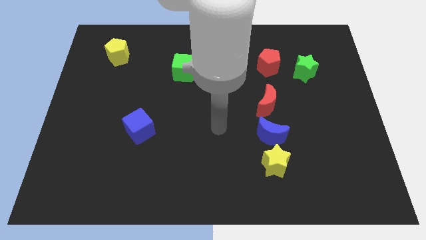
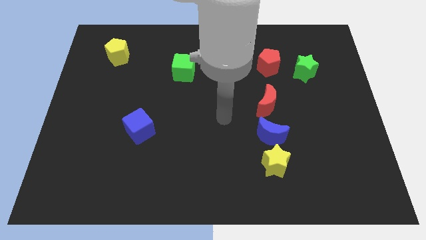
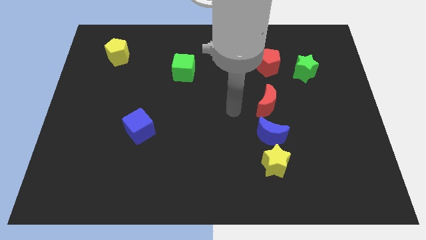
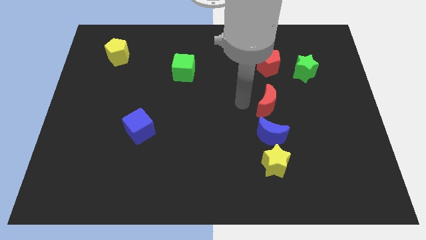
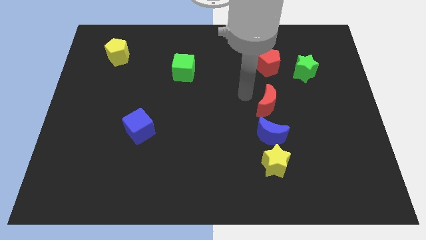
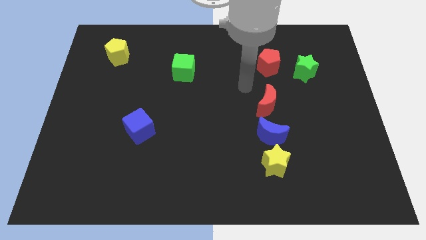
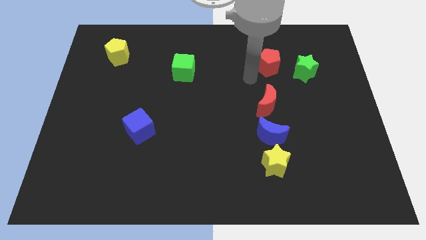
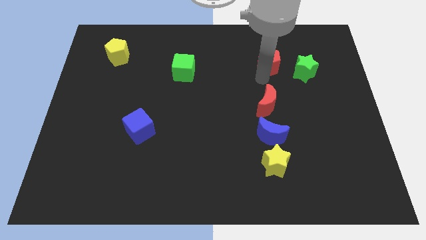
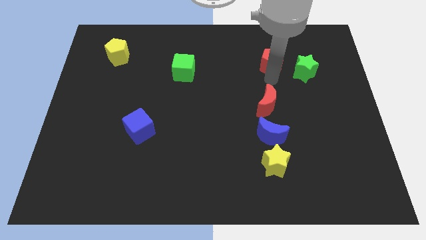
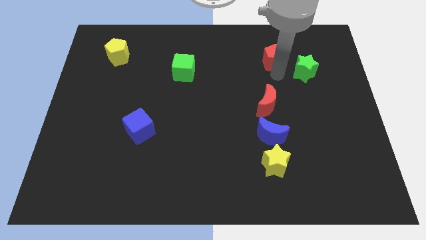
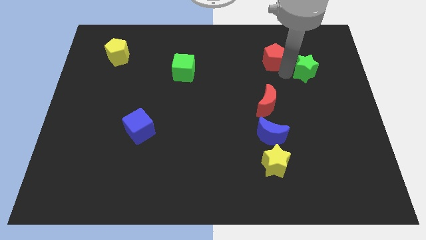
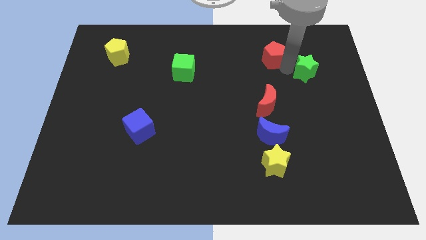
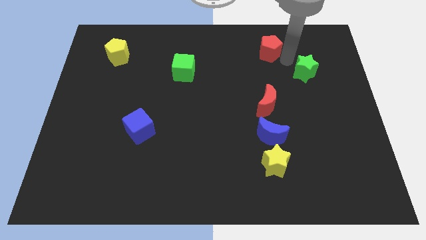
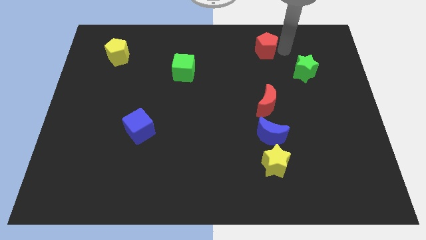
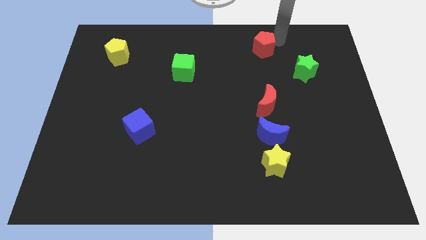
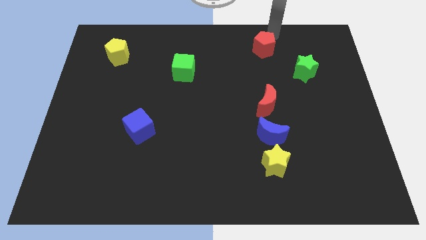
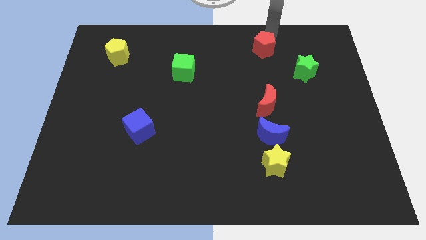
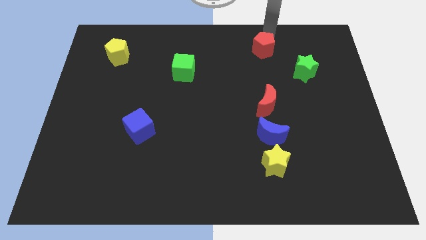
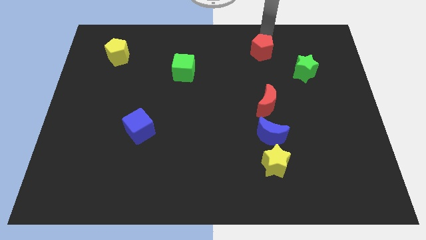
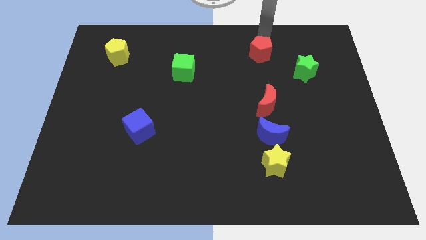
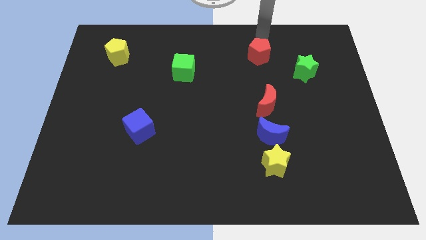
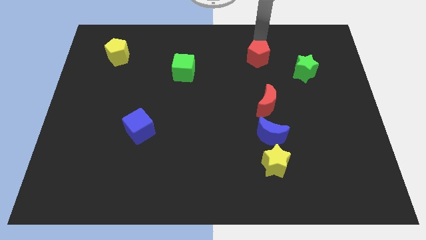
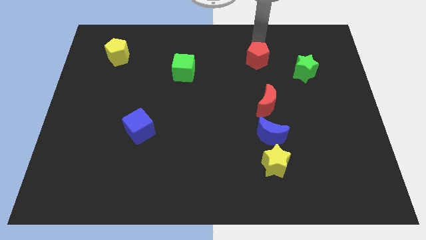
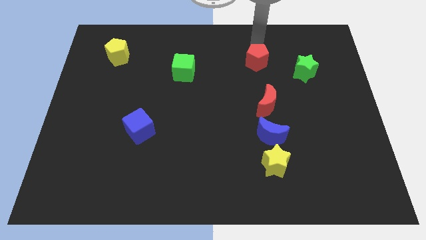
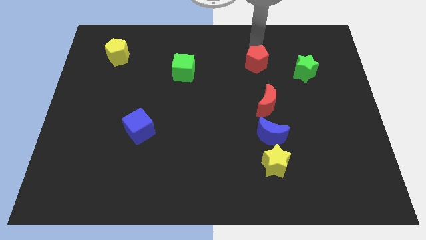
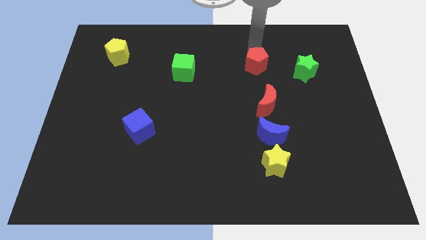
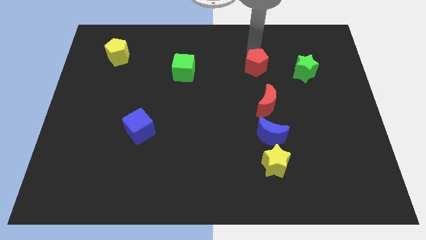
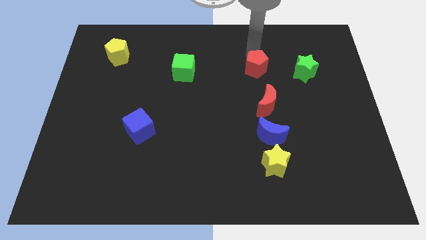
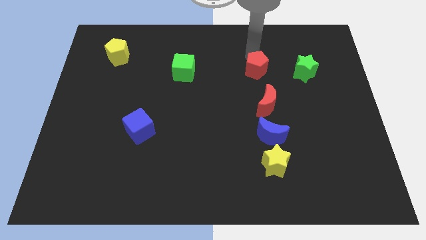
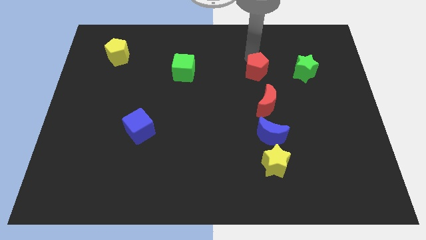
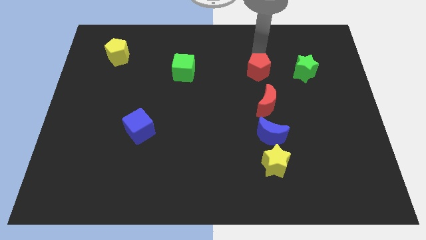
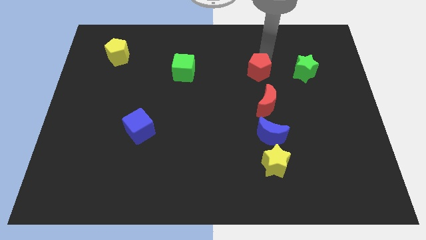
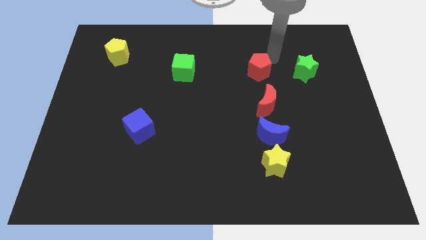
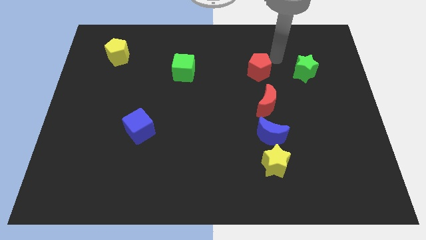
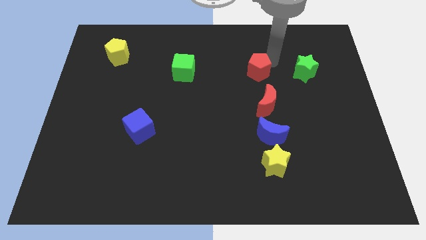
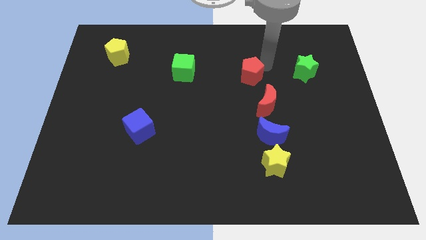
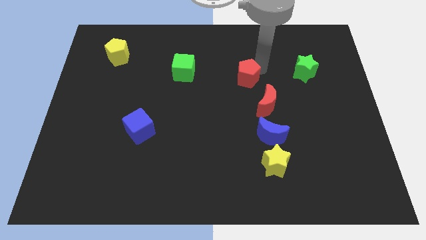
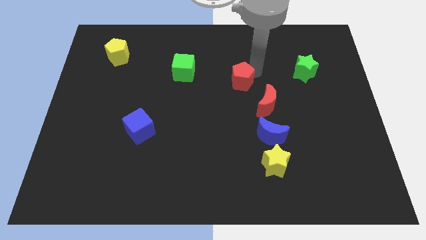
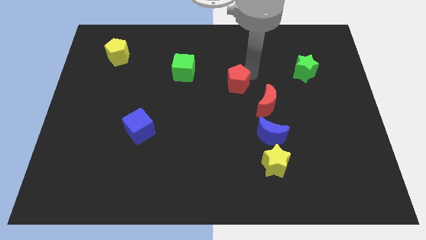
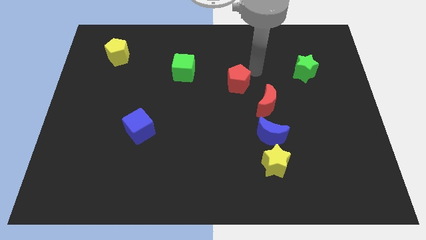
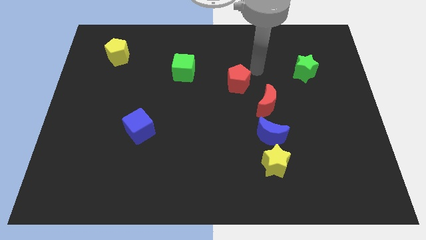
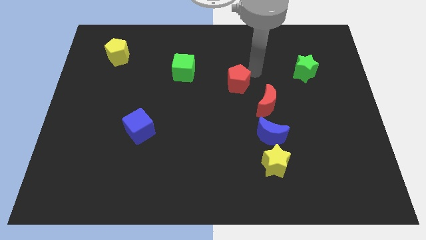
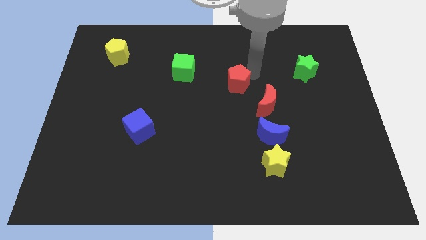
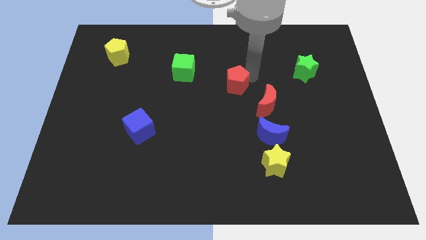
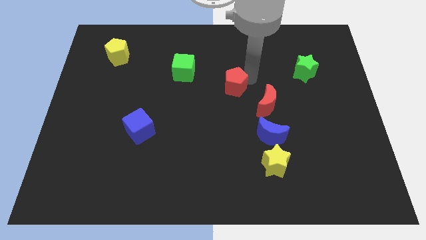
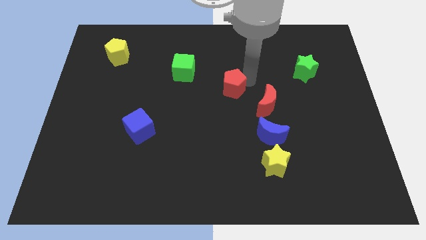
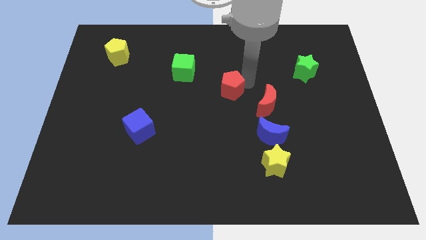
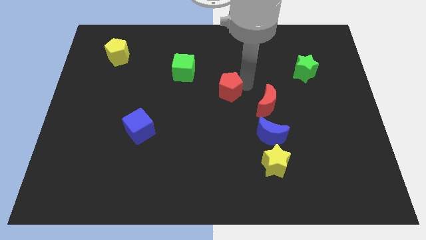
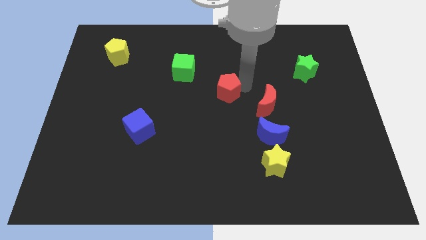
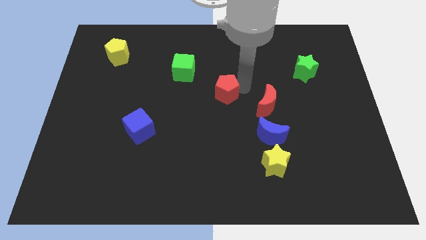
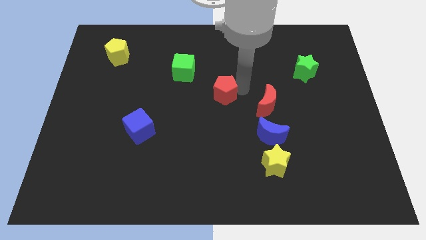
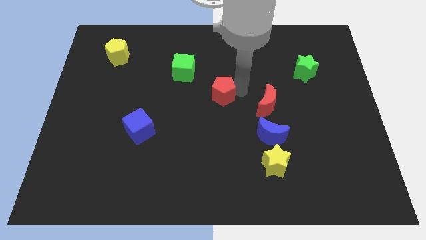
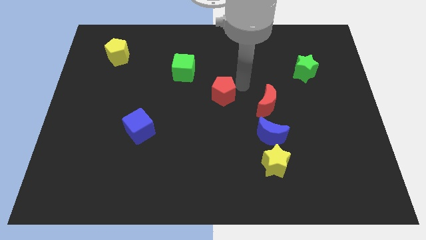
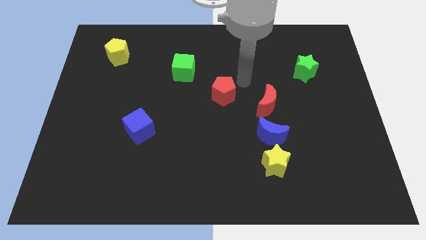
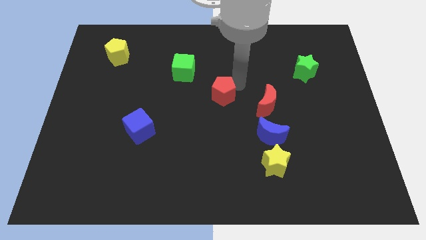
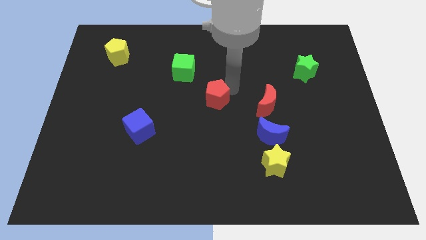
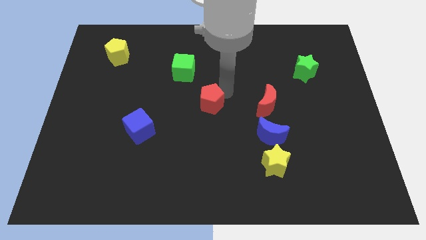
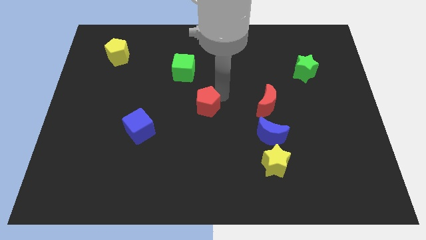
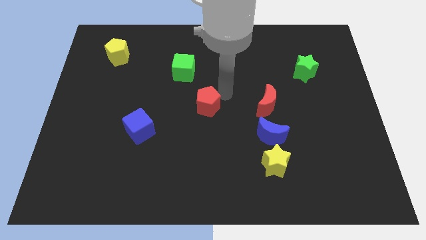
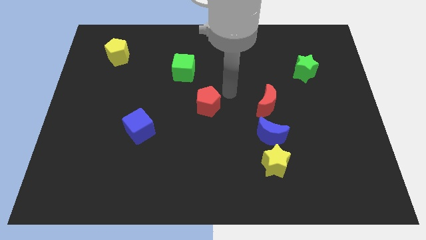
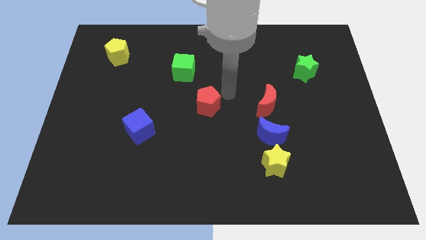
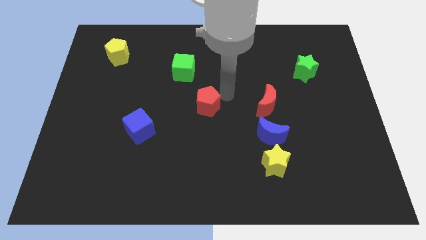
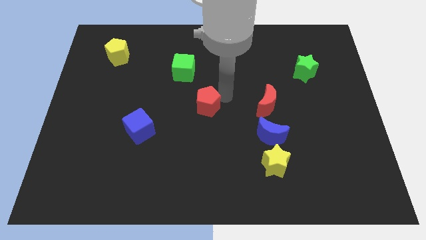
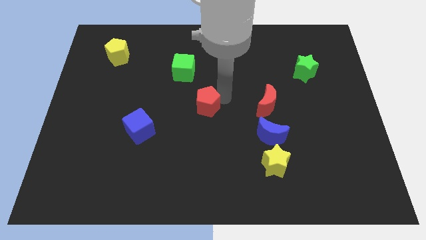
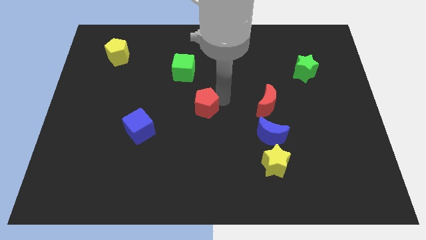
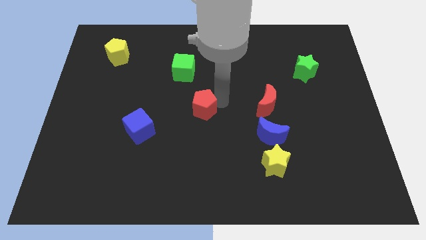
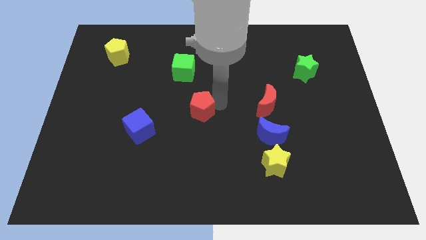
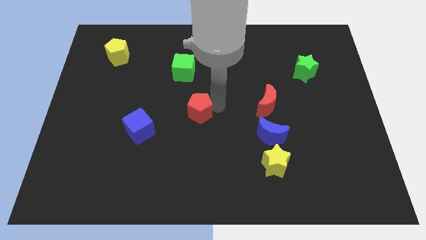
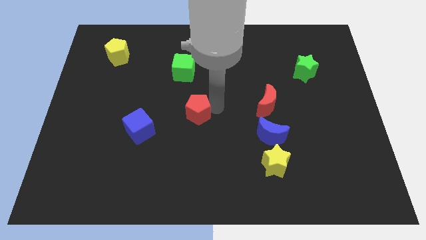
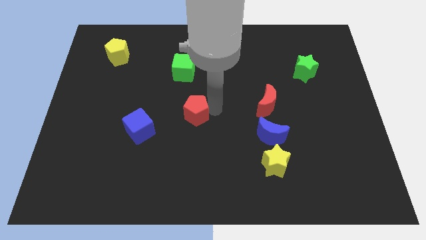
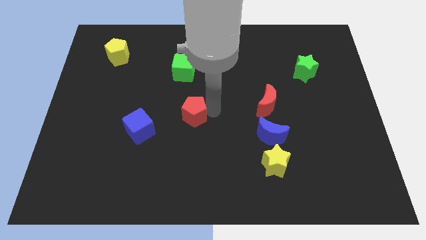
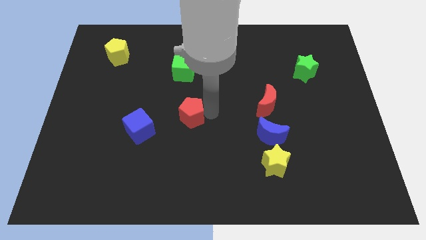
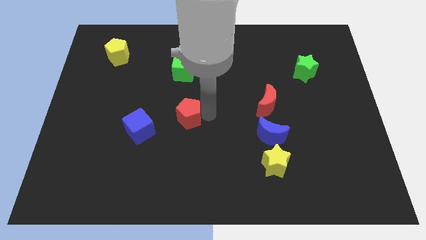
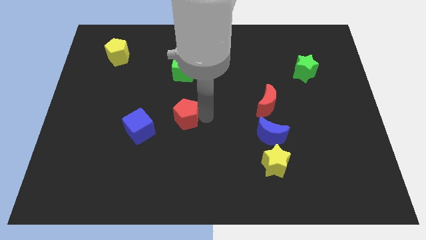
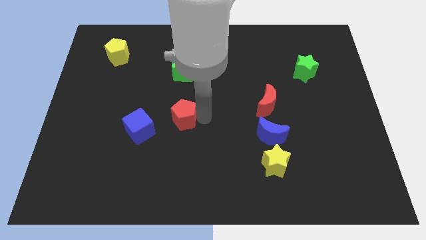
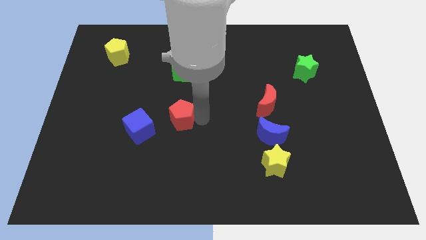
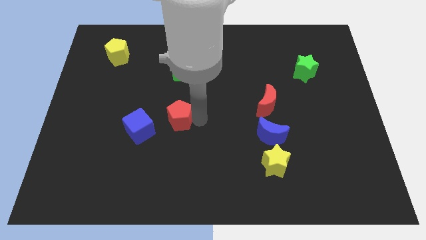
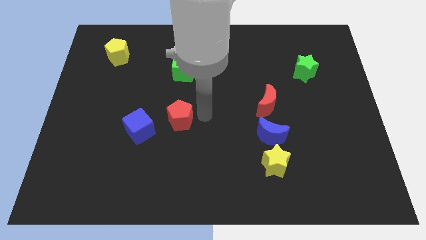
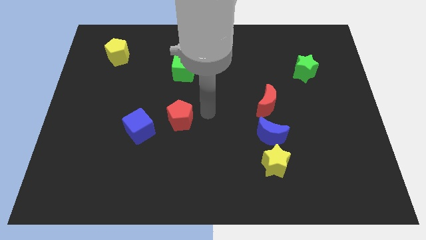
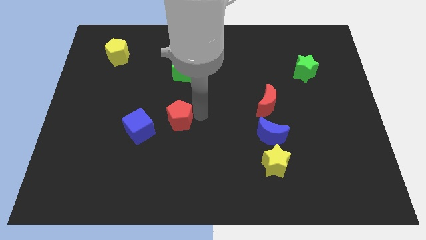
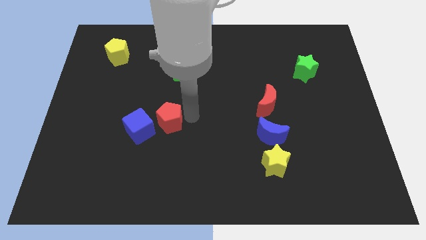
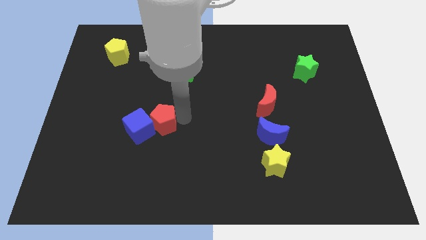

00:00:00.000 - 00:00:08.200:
push the red pentagon to the blue cube

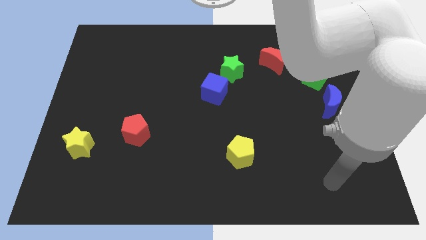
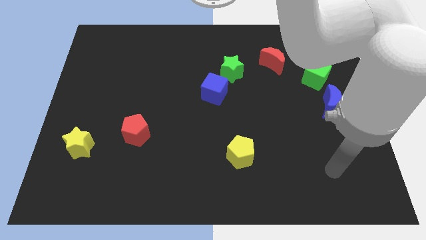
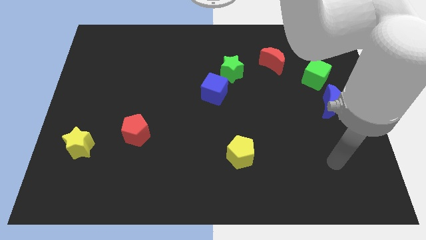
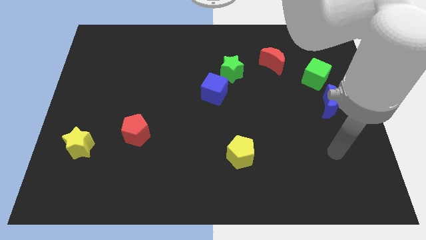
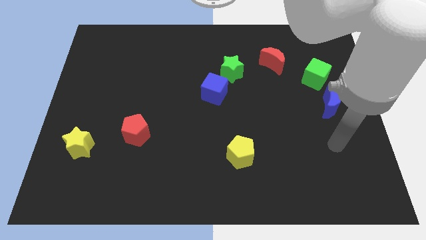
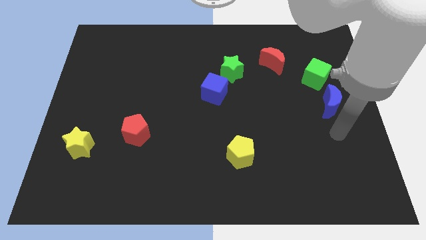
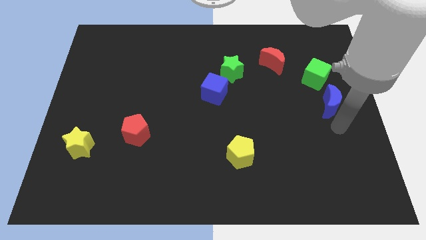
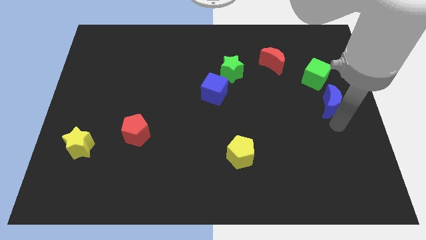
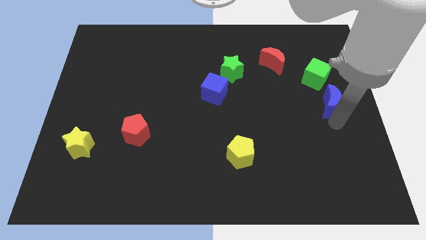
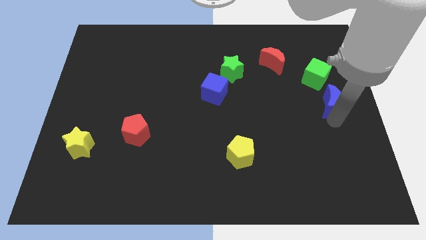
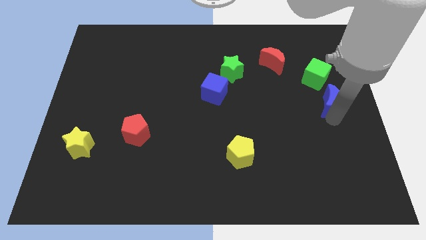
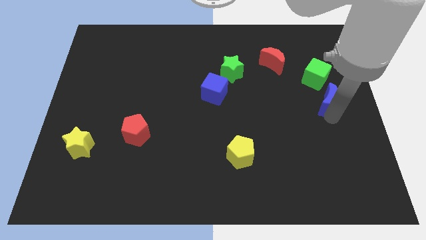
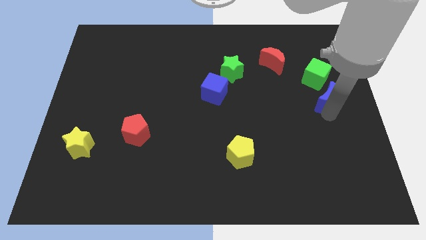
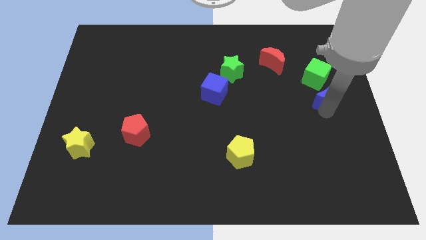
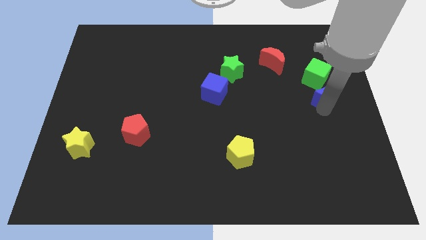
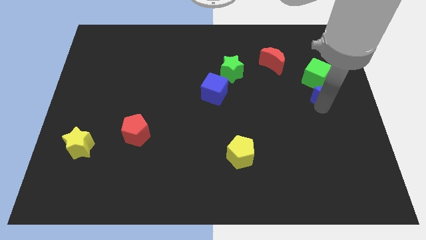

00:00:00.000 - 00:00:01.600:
push the blue moon to the green cube
